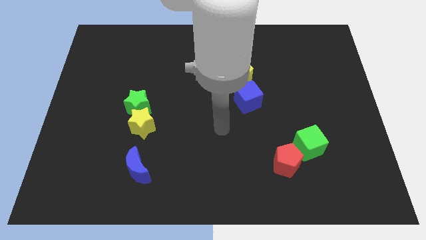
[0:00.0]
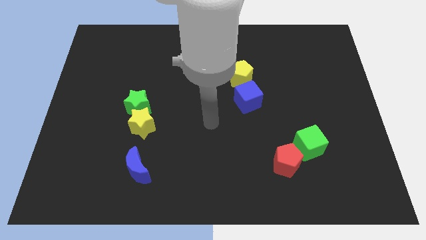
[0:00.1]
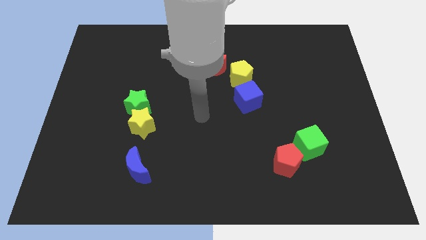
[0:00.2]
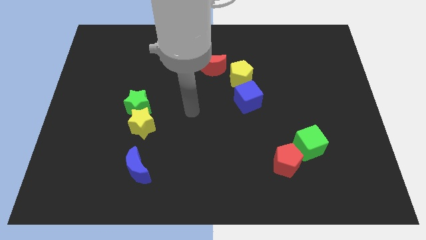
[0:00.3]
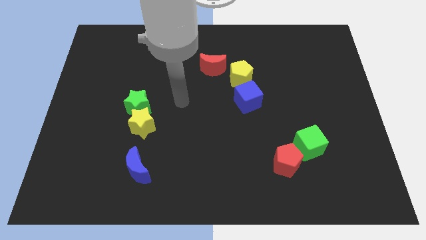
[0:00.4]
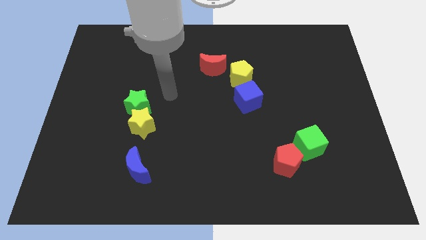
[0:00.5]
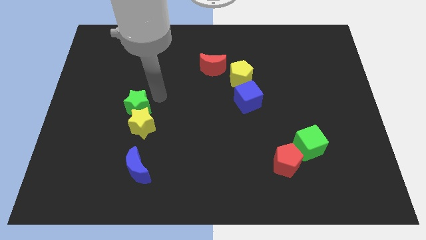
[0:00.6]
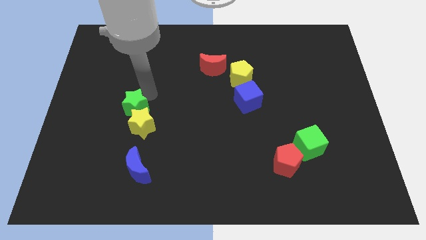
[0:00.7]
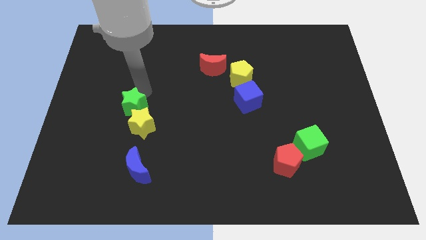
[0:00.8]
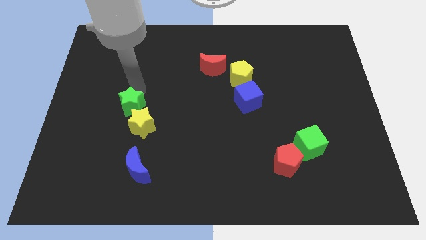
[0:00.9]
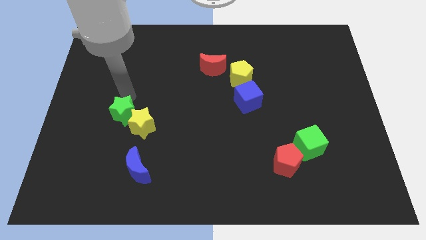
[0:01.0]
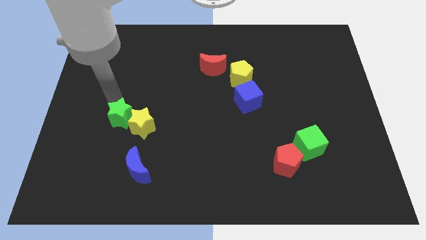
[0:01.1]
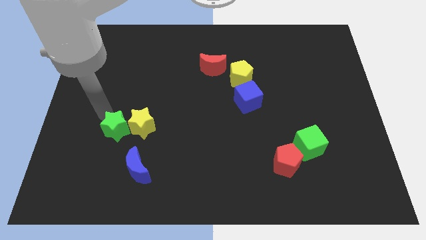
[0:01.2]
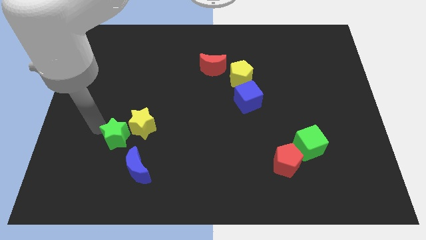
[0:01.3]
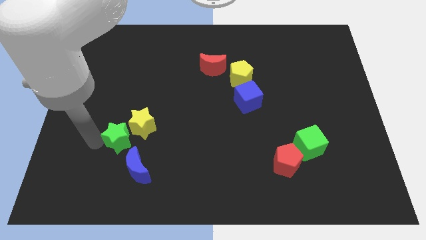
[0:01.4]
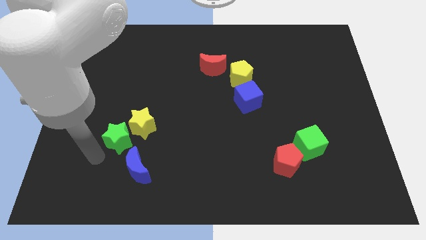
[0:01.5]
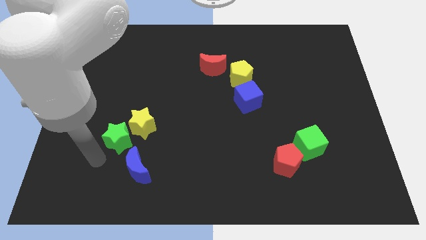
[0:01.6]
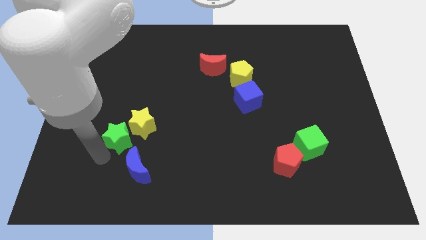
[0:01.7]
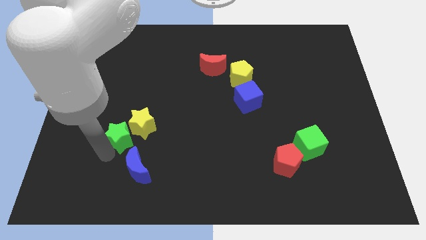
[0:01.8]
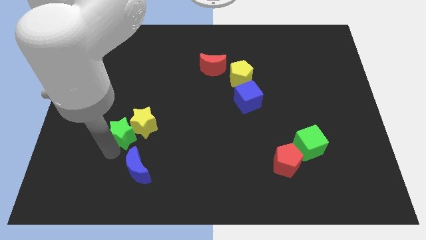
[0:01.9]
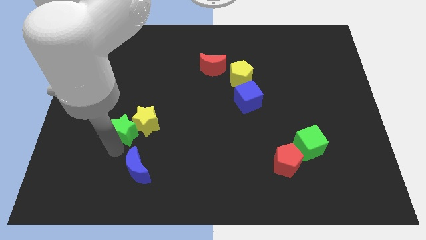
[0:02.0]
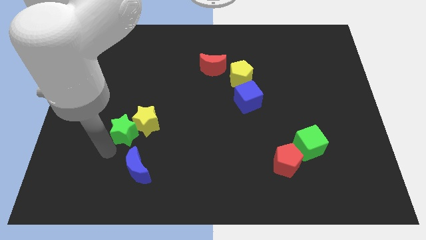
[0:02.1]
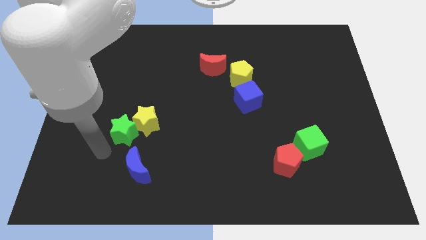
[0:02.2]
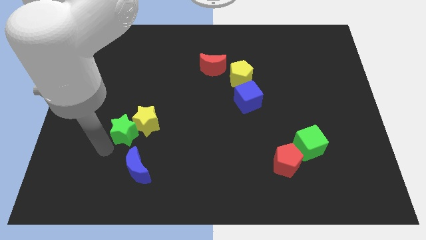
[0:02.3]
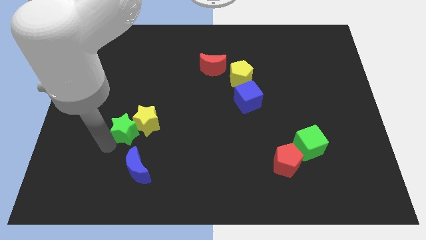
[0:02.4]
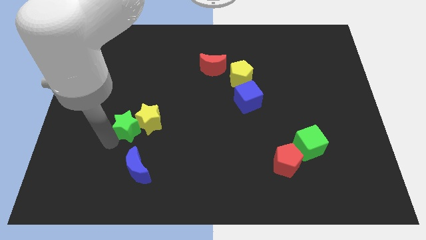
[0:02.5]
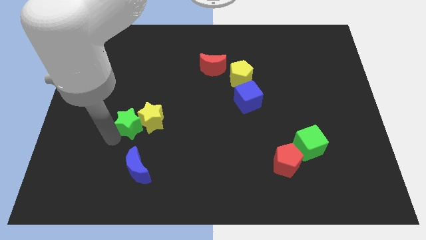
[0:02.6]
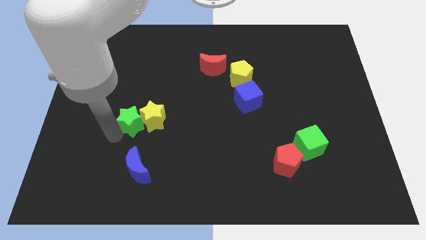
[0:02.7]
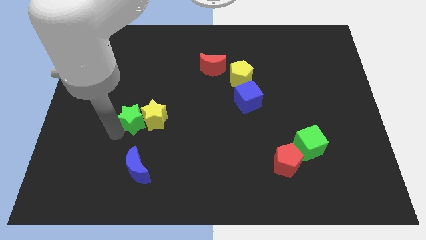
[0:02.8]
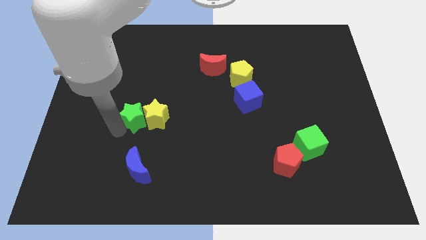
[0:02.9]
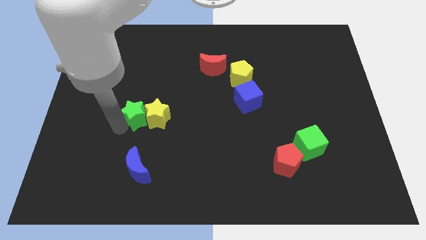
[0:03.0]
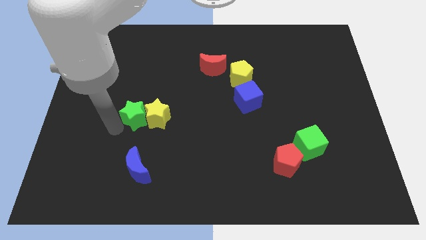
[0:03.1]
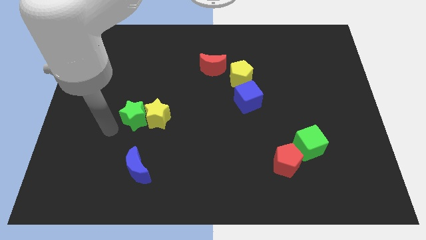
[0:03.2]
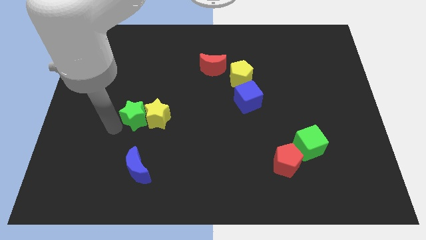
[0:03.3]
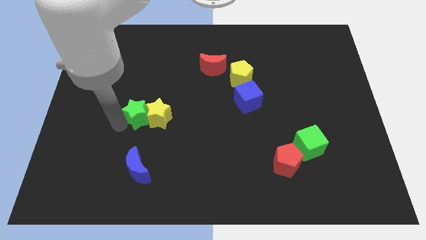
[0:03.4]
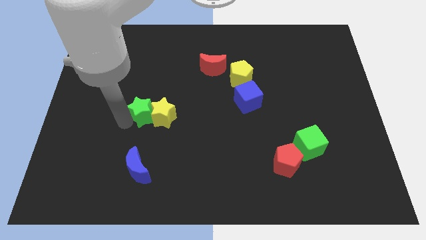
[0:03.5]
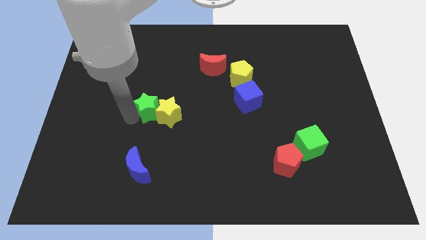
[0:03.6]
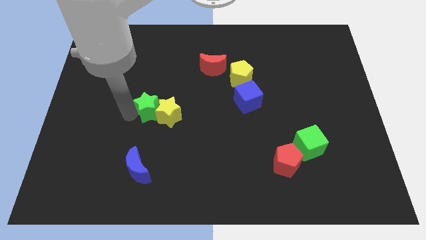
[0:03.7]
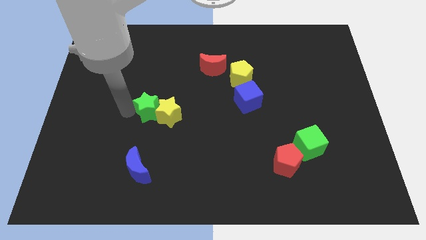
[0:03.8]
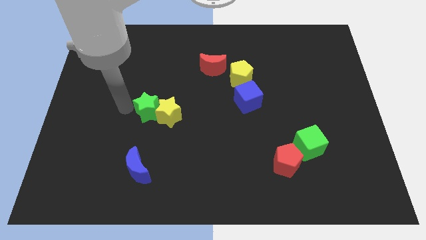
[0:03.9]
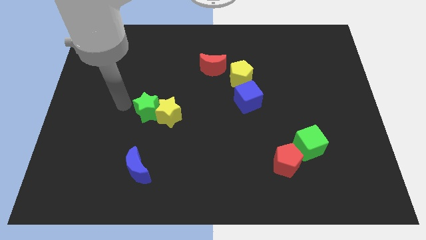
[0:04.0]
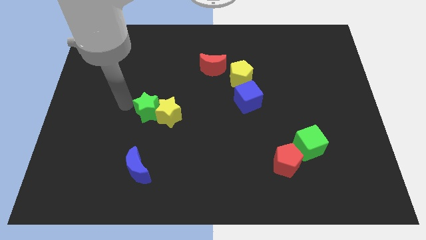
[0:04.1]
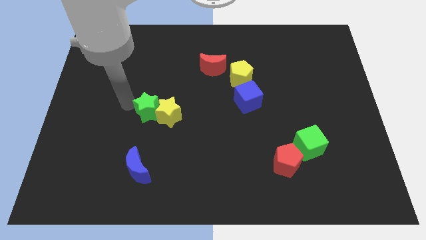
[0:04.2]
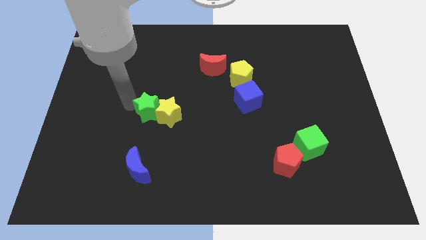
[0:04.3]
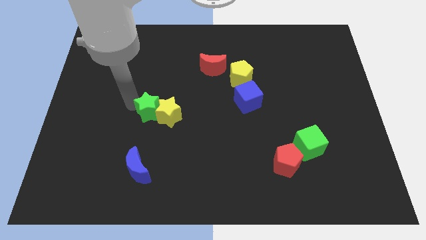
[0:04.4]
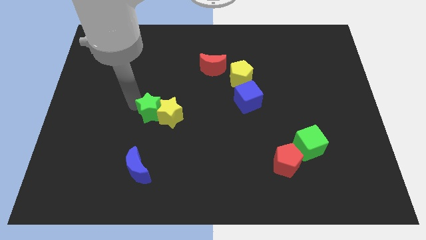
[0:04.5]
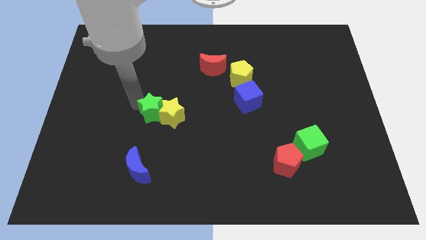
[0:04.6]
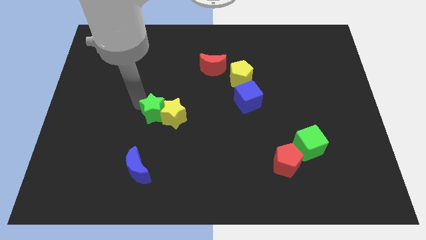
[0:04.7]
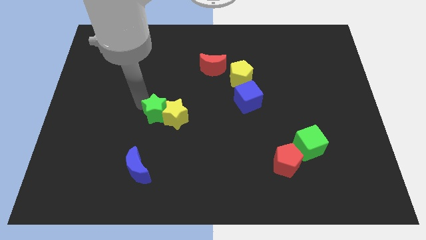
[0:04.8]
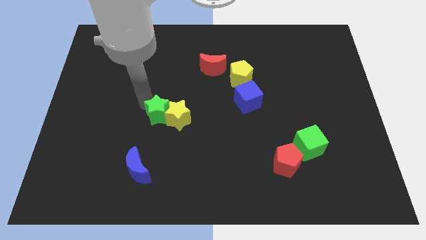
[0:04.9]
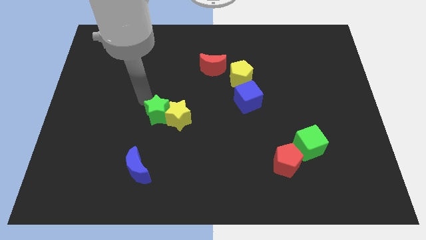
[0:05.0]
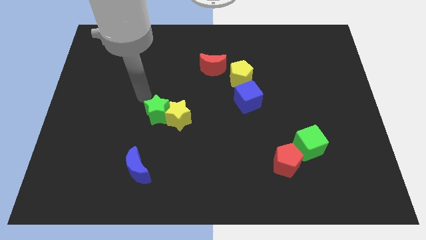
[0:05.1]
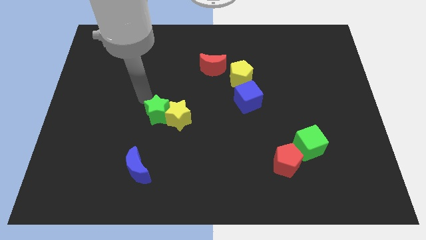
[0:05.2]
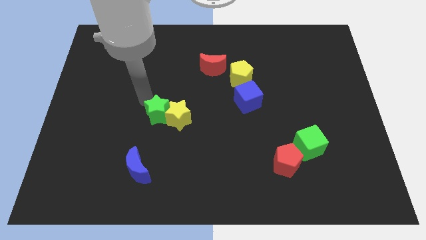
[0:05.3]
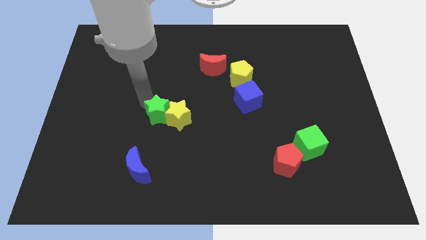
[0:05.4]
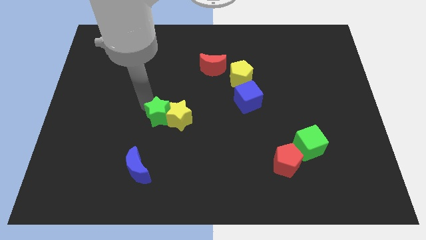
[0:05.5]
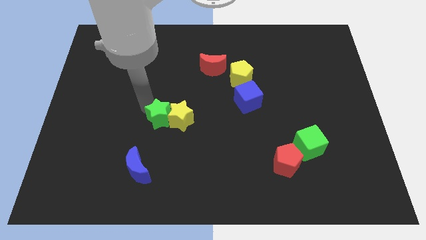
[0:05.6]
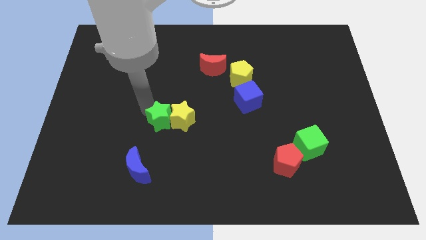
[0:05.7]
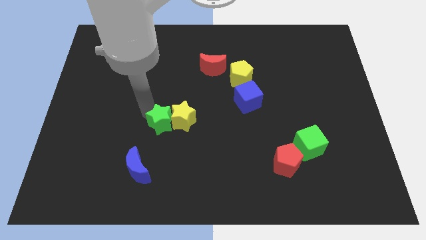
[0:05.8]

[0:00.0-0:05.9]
slightly move the green star down and right

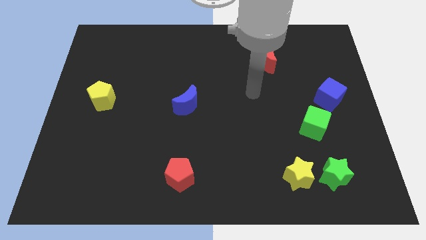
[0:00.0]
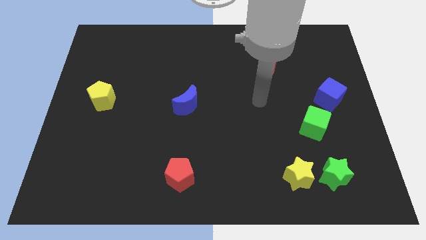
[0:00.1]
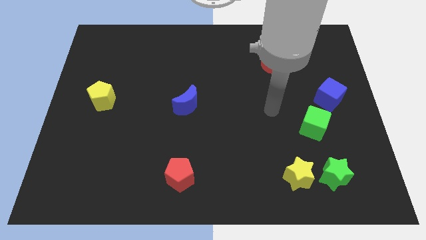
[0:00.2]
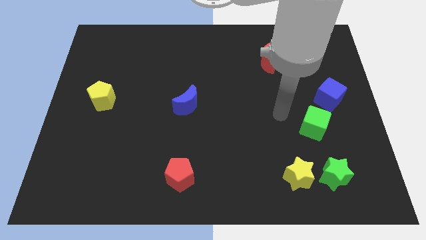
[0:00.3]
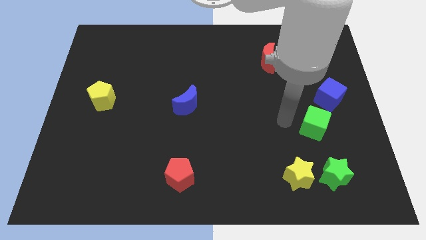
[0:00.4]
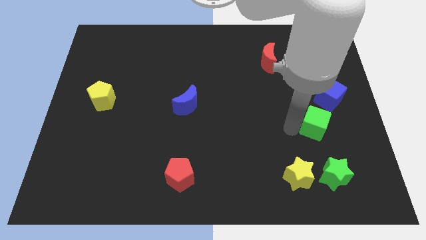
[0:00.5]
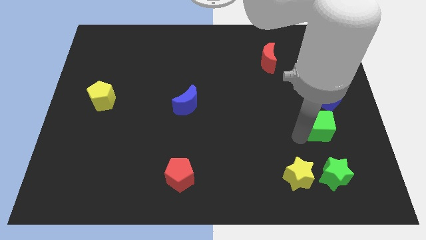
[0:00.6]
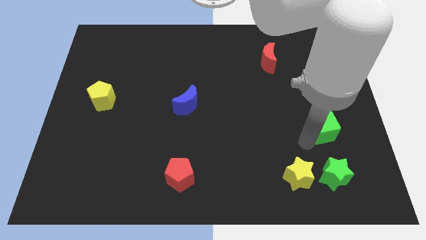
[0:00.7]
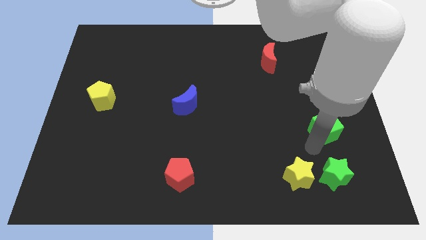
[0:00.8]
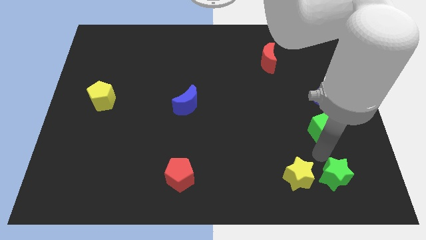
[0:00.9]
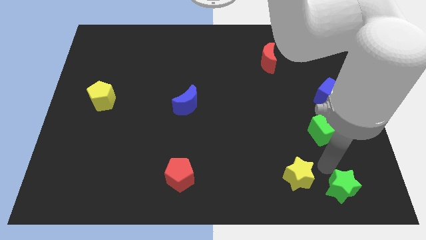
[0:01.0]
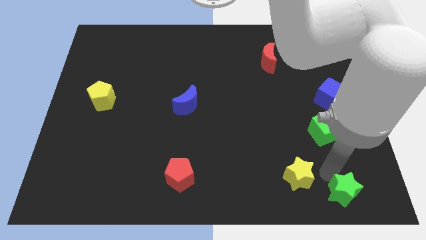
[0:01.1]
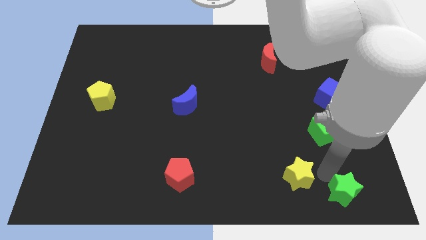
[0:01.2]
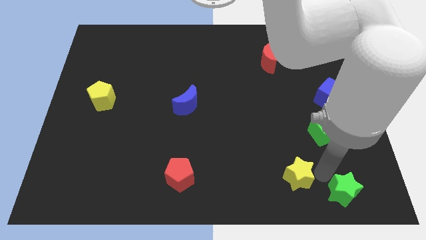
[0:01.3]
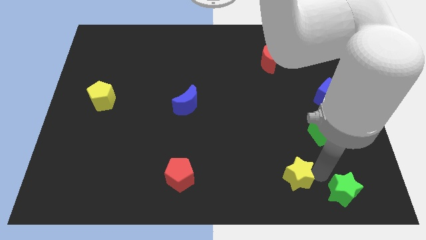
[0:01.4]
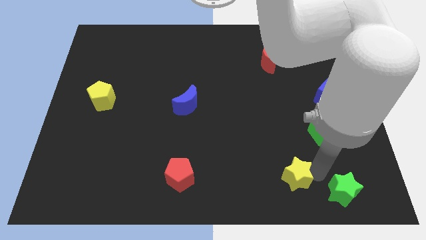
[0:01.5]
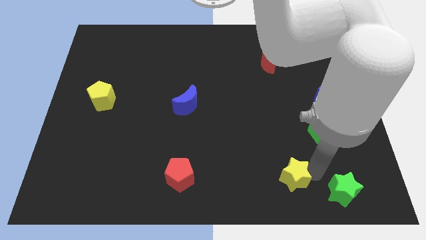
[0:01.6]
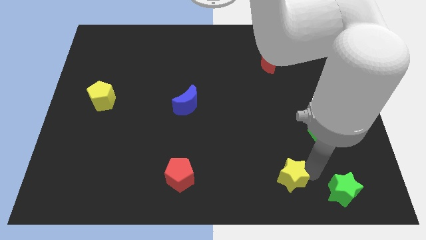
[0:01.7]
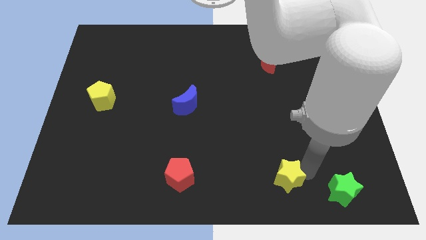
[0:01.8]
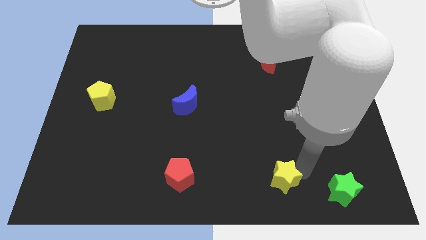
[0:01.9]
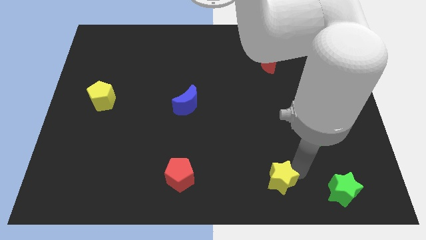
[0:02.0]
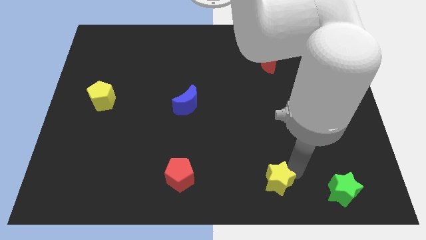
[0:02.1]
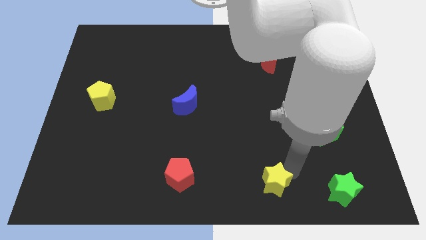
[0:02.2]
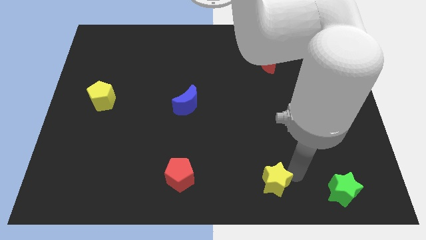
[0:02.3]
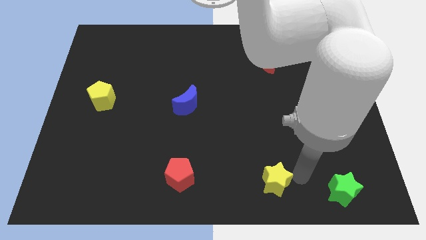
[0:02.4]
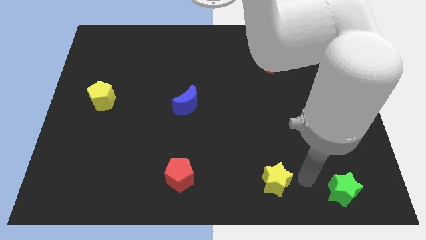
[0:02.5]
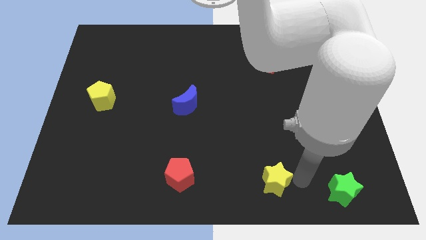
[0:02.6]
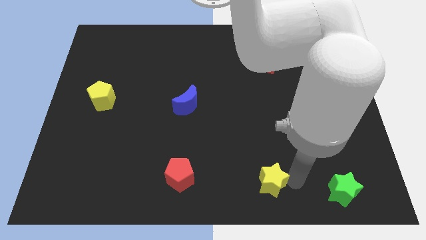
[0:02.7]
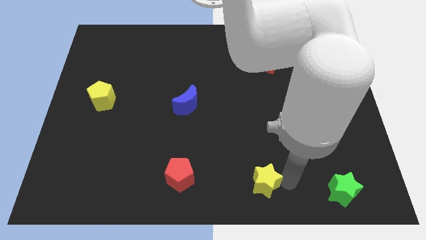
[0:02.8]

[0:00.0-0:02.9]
push the yellow star left a little
